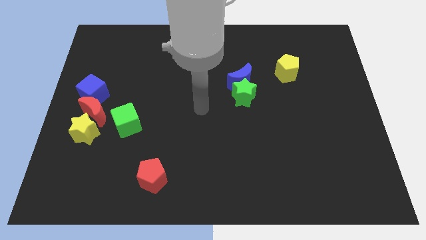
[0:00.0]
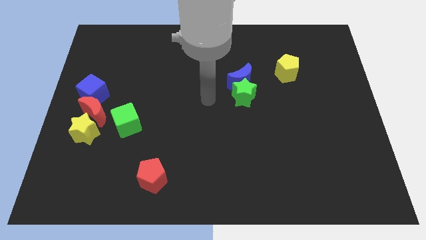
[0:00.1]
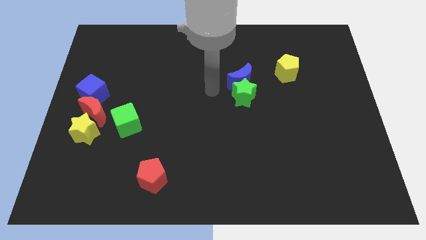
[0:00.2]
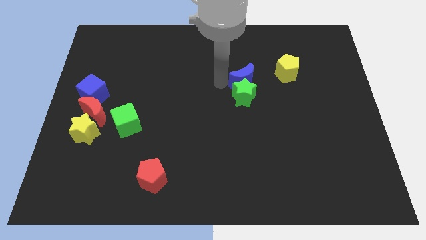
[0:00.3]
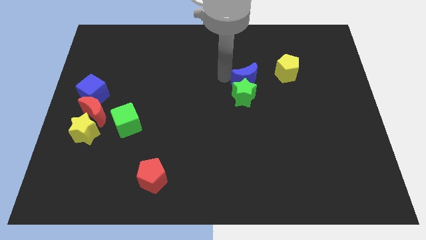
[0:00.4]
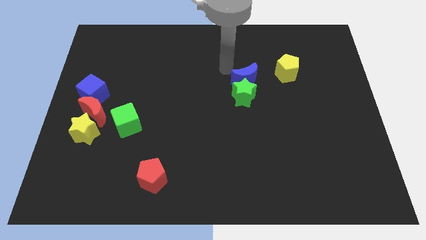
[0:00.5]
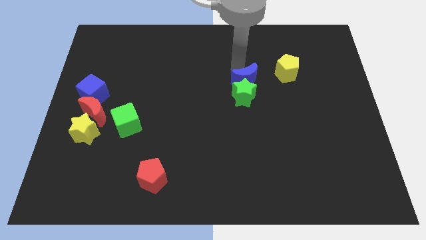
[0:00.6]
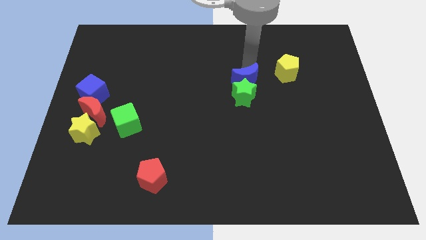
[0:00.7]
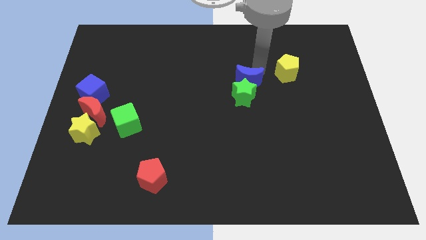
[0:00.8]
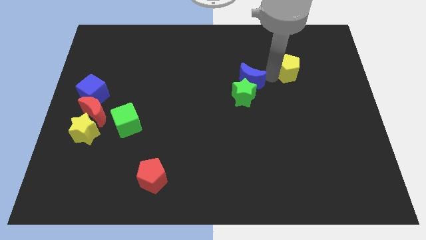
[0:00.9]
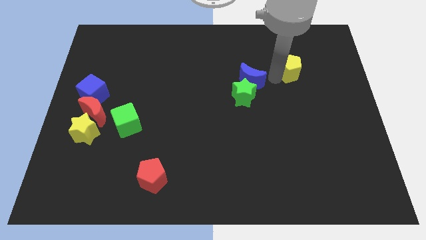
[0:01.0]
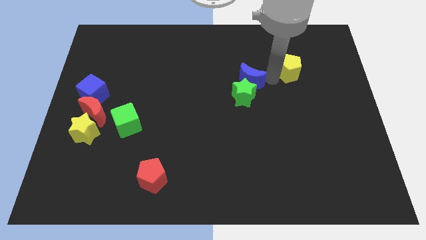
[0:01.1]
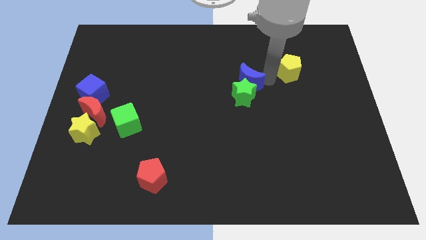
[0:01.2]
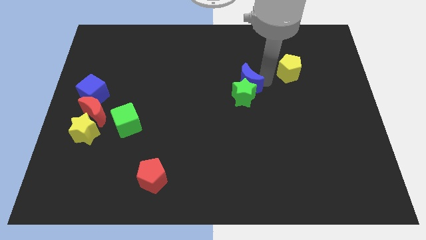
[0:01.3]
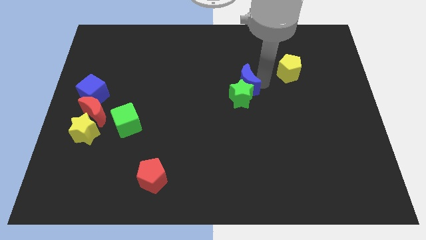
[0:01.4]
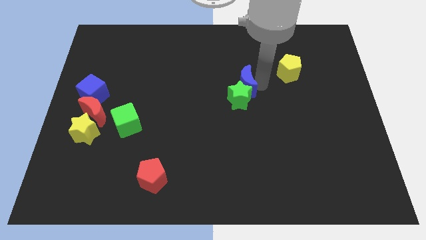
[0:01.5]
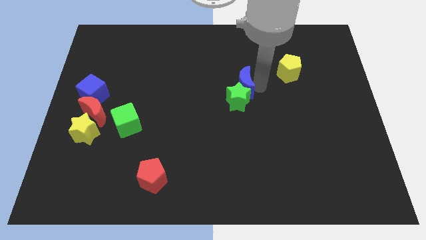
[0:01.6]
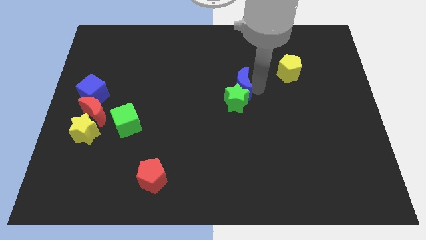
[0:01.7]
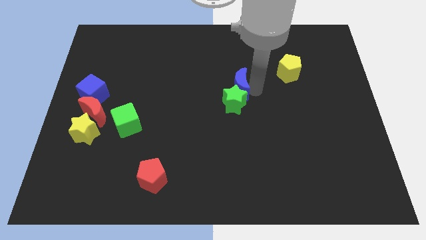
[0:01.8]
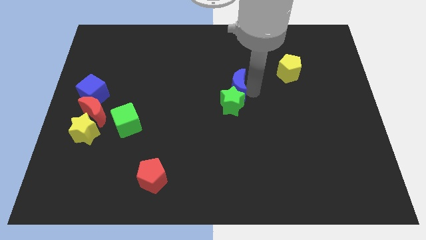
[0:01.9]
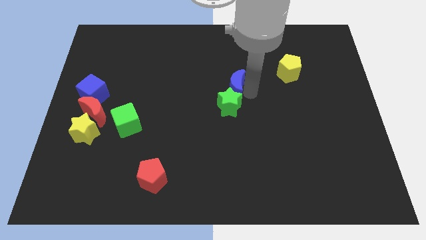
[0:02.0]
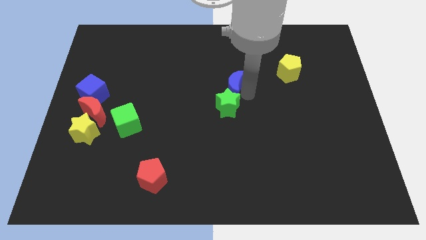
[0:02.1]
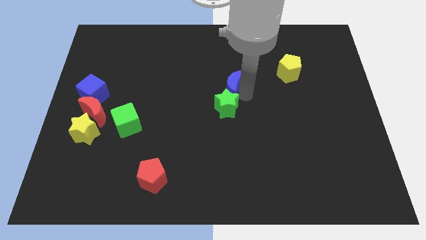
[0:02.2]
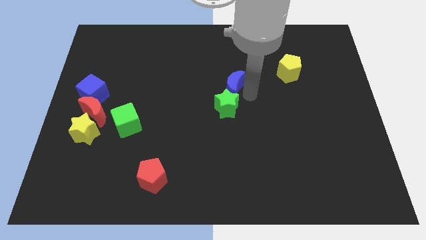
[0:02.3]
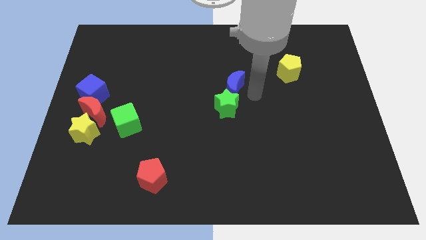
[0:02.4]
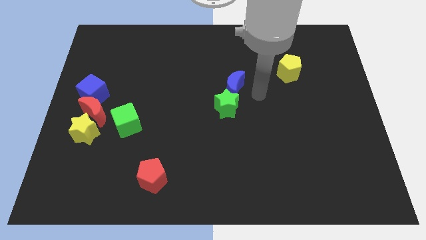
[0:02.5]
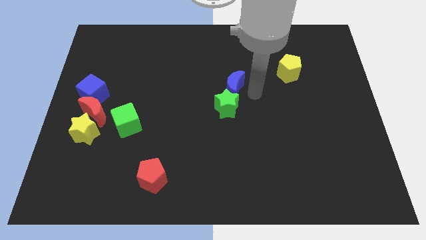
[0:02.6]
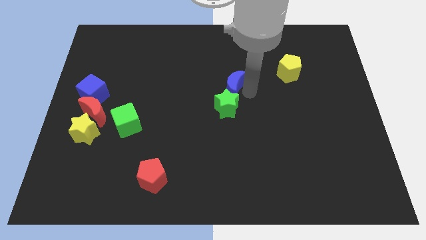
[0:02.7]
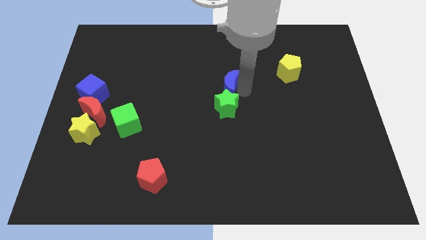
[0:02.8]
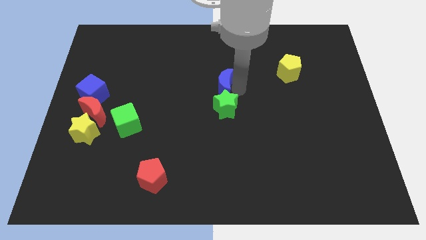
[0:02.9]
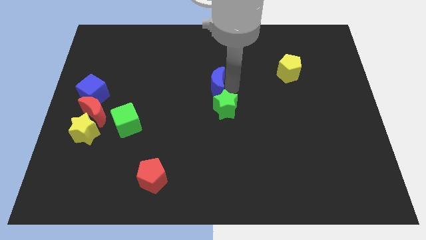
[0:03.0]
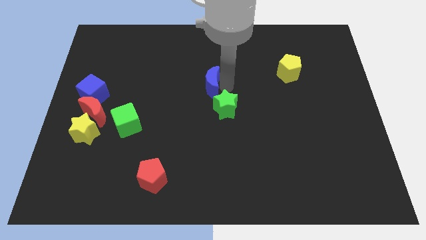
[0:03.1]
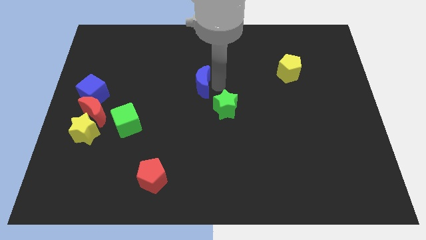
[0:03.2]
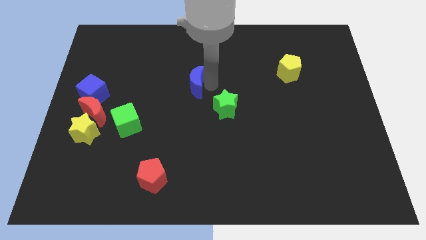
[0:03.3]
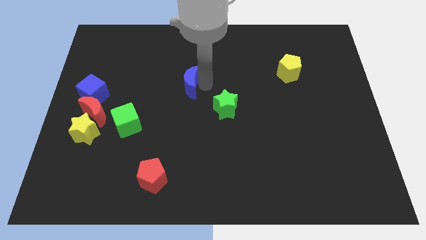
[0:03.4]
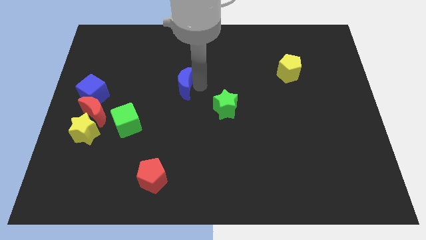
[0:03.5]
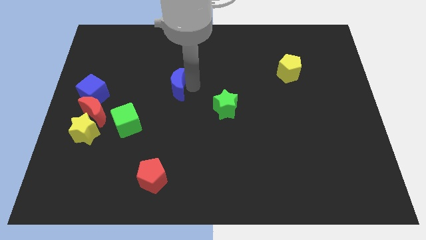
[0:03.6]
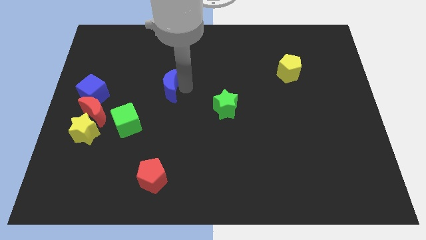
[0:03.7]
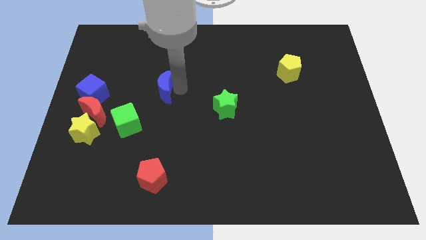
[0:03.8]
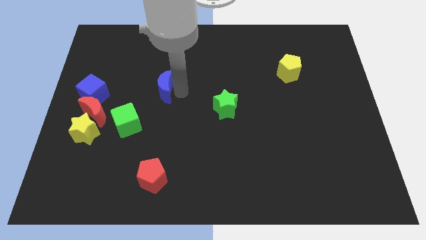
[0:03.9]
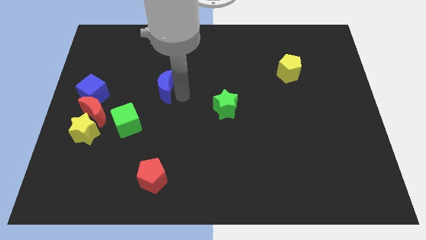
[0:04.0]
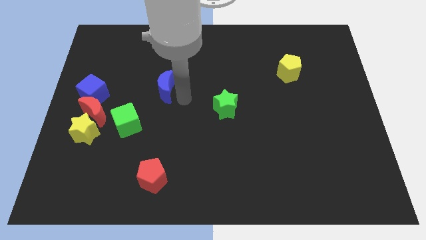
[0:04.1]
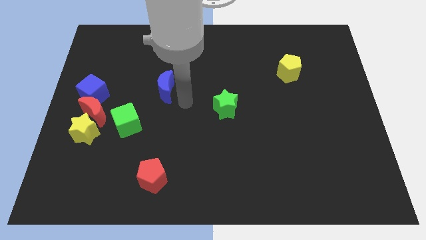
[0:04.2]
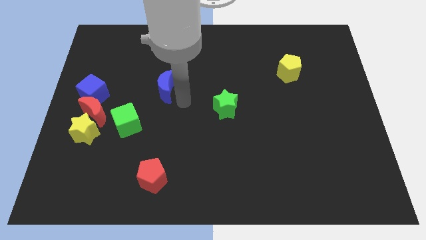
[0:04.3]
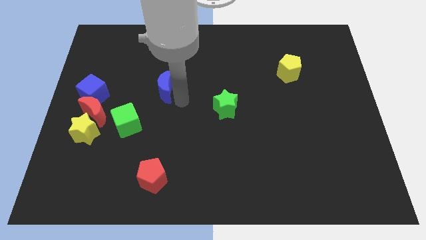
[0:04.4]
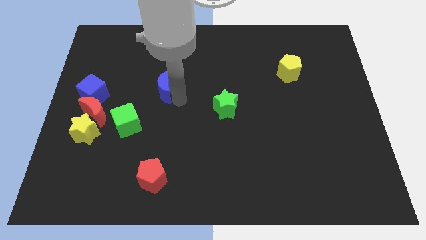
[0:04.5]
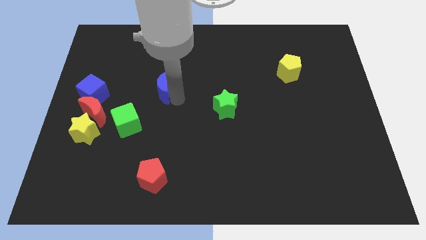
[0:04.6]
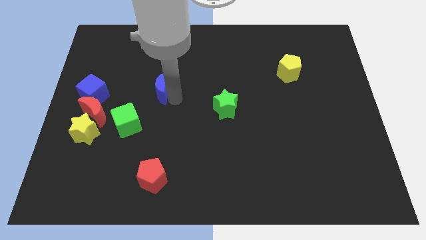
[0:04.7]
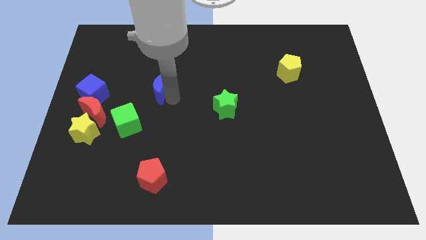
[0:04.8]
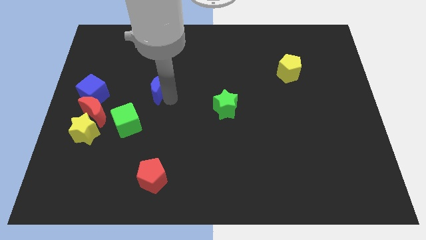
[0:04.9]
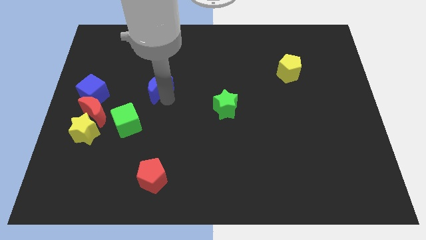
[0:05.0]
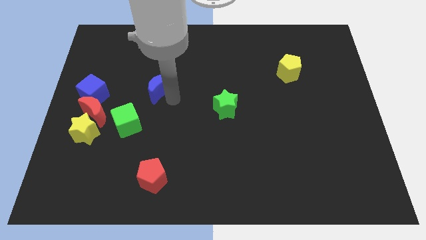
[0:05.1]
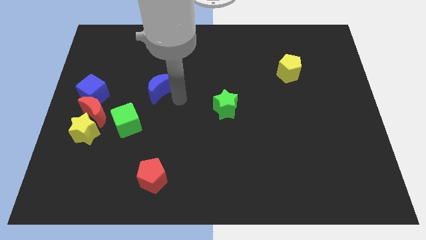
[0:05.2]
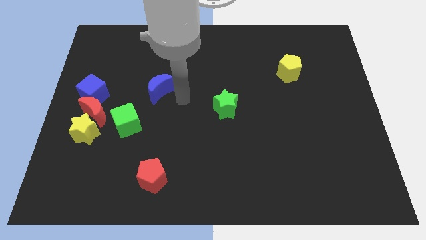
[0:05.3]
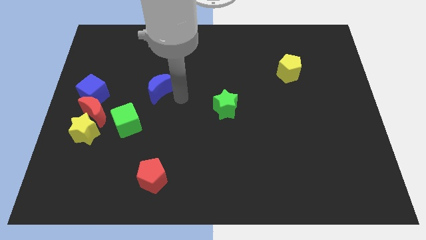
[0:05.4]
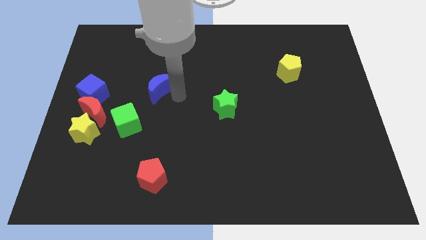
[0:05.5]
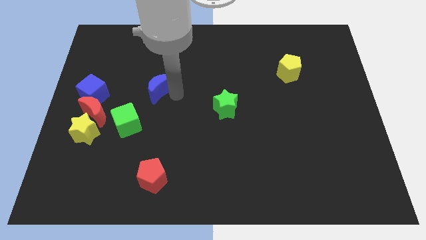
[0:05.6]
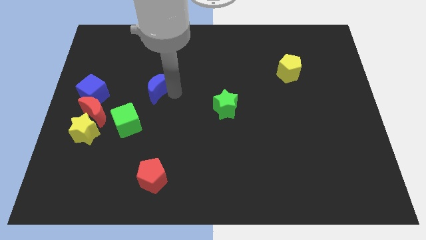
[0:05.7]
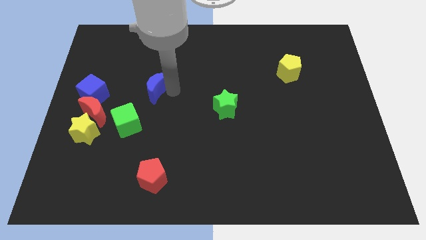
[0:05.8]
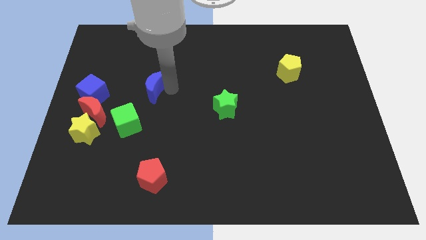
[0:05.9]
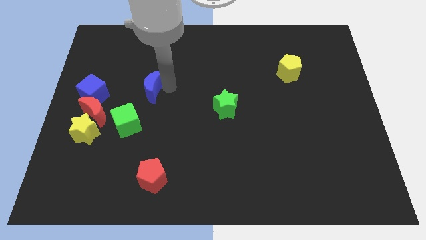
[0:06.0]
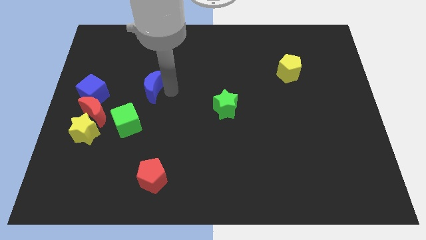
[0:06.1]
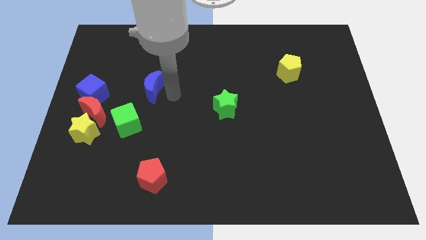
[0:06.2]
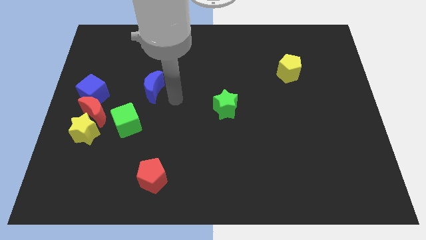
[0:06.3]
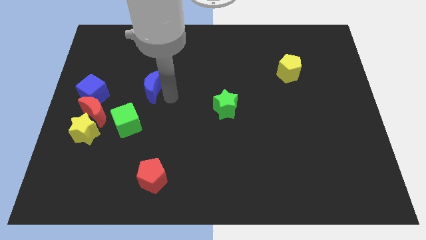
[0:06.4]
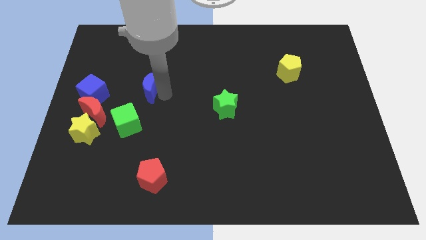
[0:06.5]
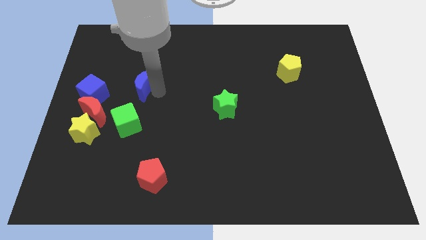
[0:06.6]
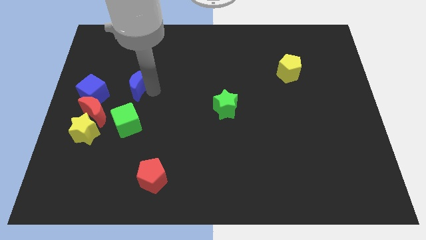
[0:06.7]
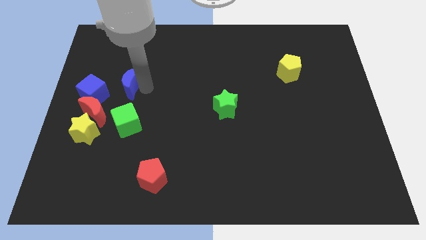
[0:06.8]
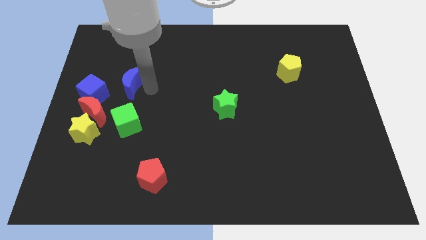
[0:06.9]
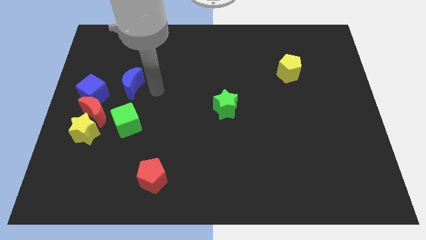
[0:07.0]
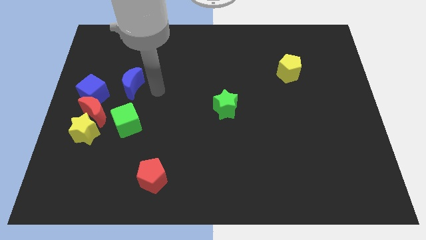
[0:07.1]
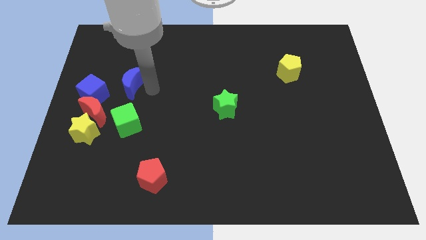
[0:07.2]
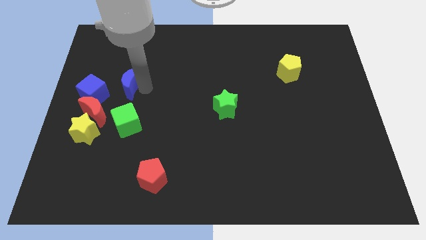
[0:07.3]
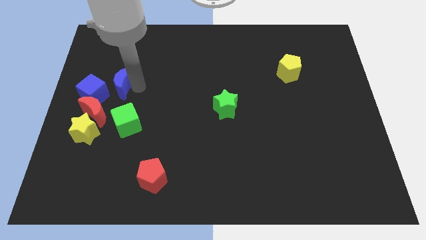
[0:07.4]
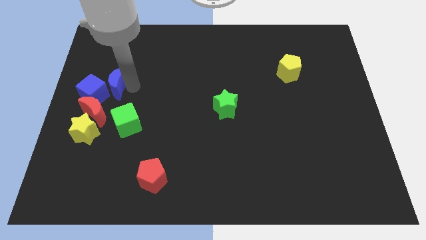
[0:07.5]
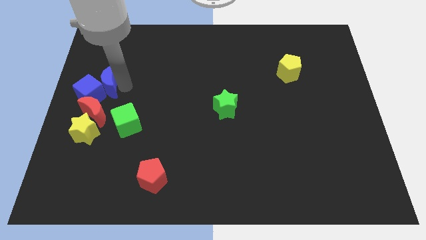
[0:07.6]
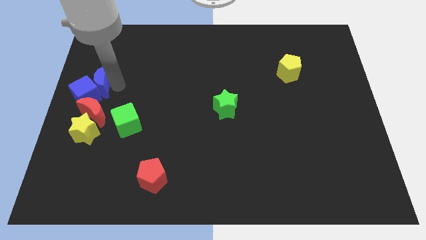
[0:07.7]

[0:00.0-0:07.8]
slide the blue moon to the center left
